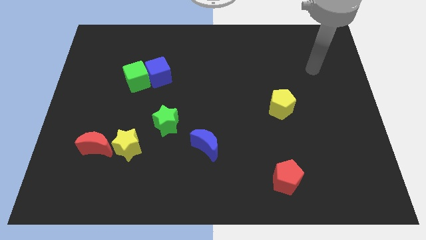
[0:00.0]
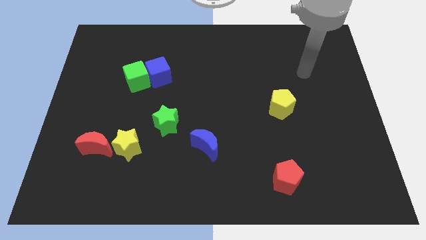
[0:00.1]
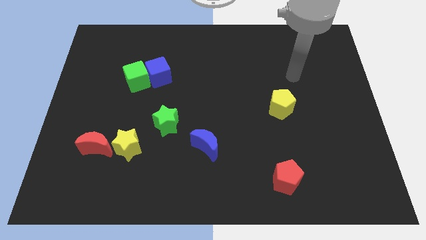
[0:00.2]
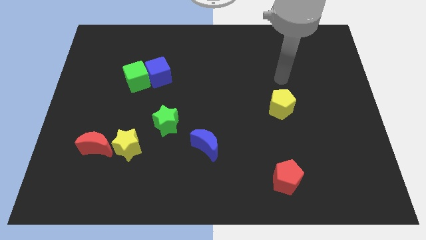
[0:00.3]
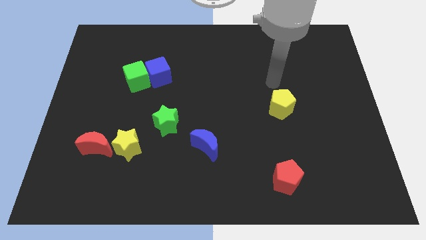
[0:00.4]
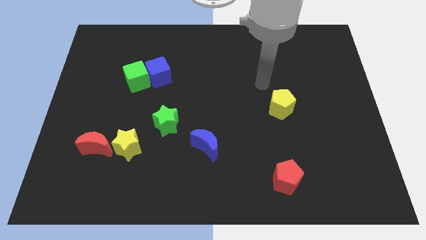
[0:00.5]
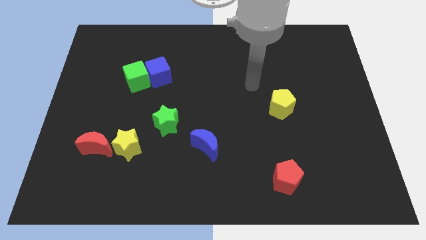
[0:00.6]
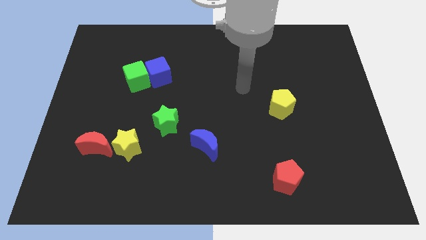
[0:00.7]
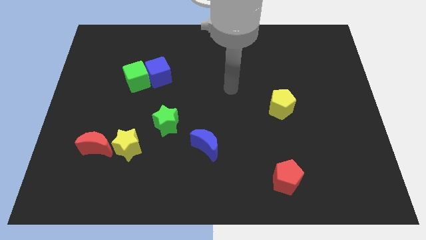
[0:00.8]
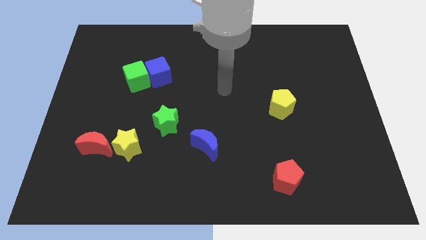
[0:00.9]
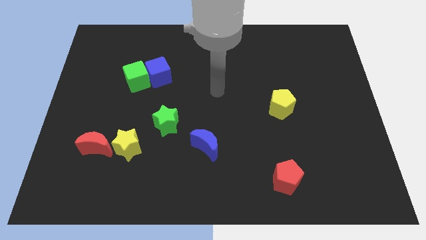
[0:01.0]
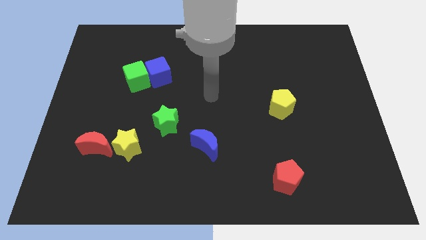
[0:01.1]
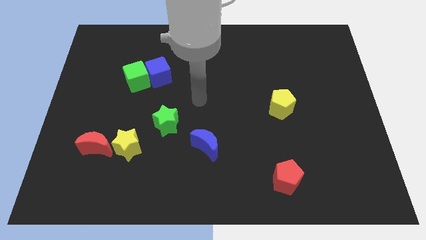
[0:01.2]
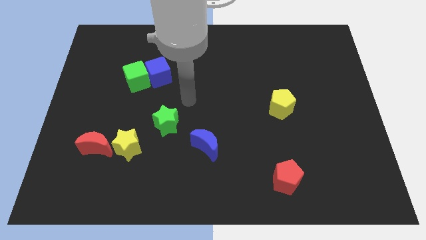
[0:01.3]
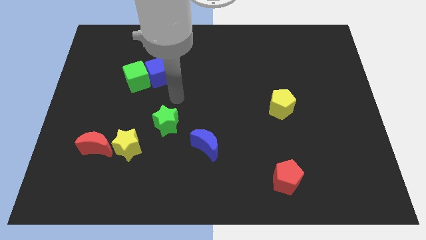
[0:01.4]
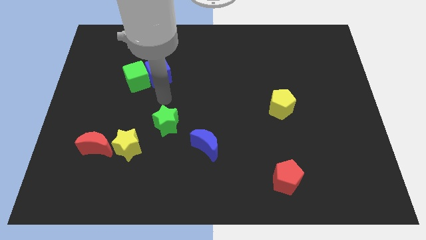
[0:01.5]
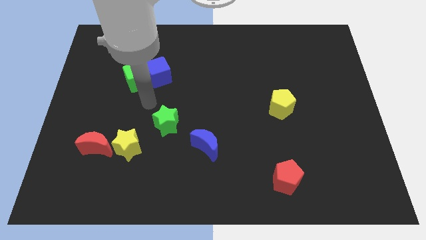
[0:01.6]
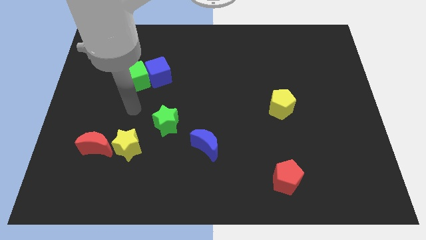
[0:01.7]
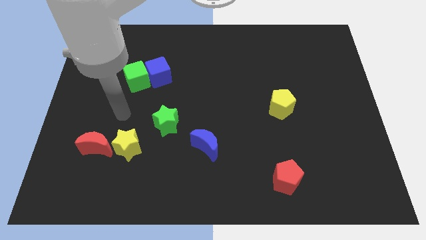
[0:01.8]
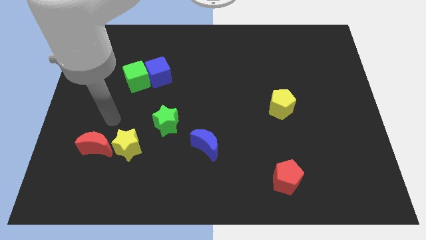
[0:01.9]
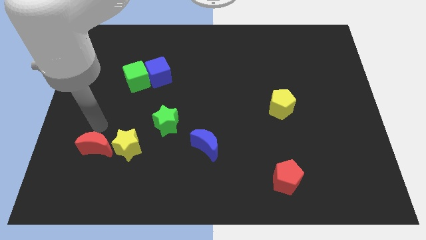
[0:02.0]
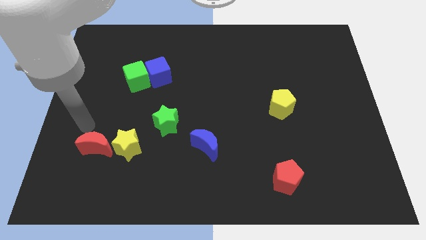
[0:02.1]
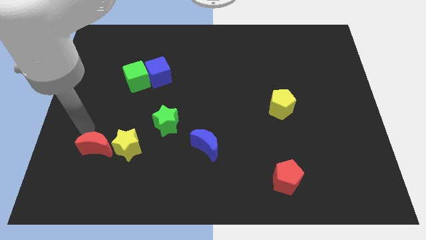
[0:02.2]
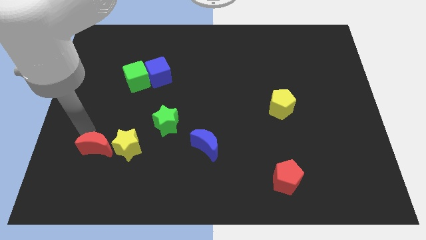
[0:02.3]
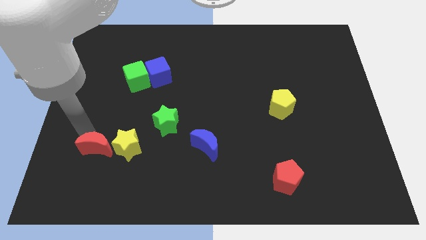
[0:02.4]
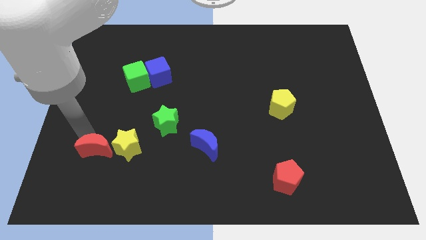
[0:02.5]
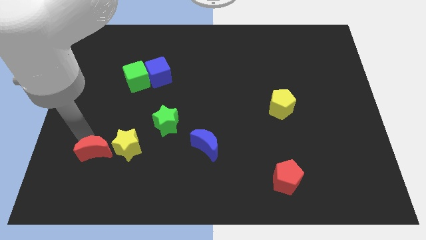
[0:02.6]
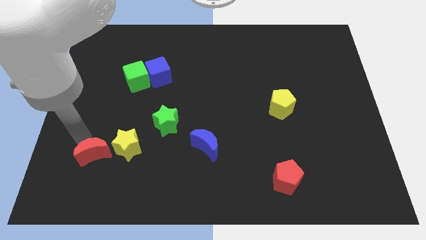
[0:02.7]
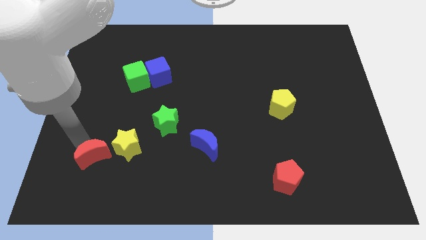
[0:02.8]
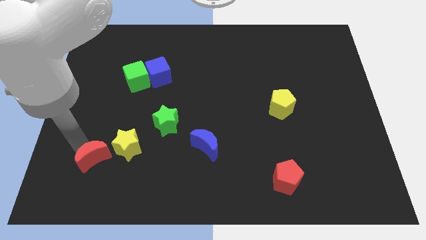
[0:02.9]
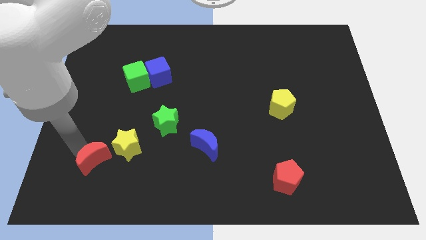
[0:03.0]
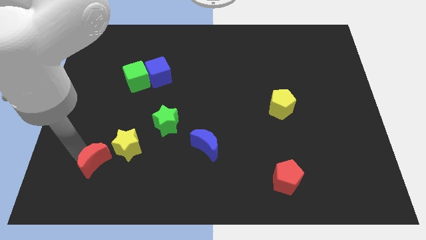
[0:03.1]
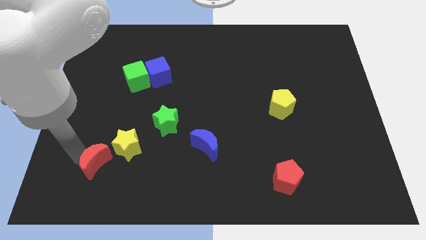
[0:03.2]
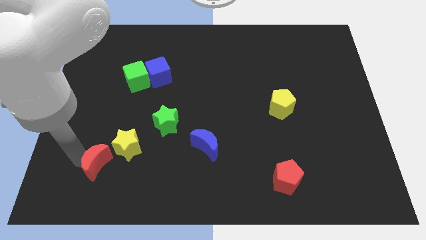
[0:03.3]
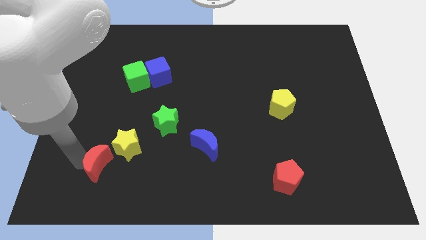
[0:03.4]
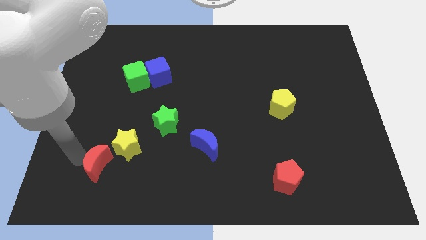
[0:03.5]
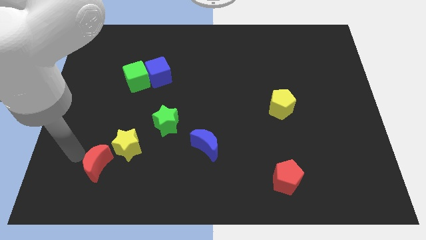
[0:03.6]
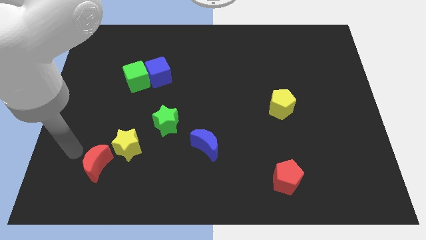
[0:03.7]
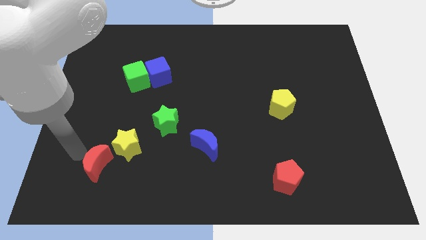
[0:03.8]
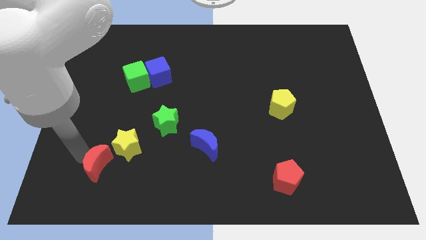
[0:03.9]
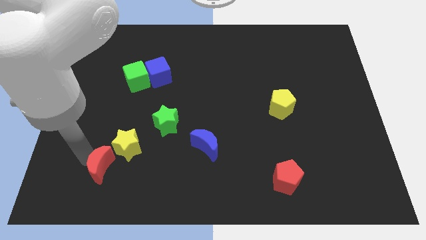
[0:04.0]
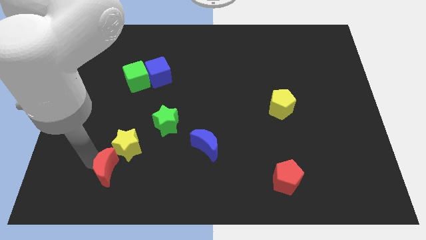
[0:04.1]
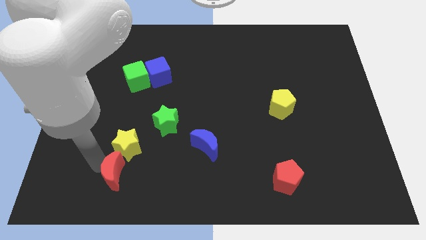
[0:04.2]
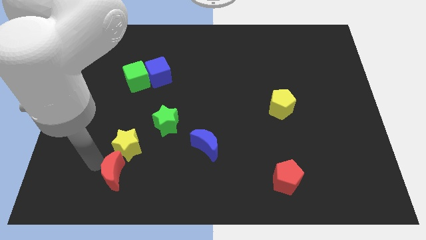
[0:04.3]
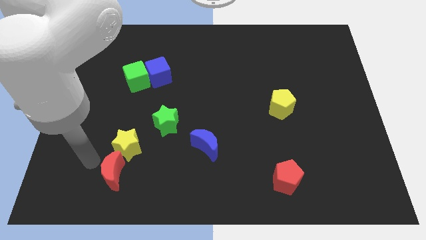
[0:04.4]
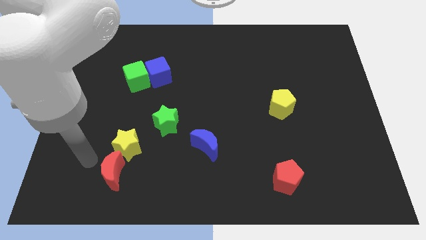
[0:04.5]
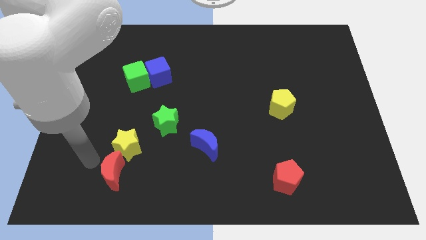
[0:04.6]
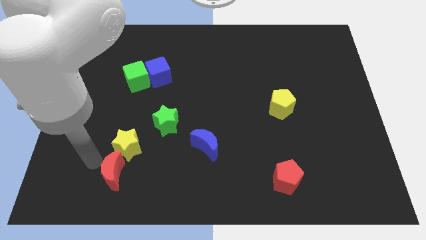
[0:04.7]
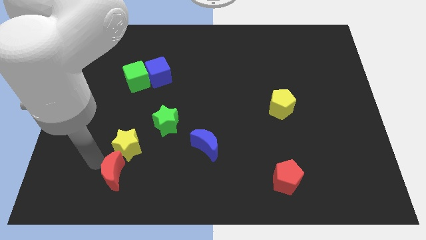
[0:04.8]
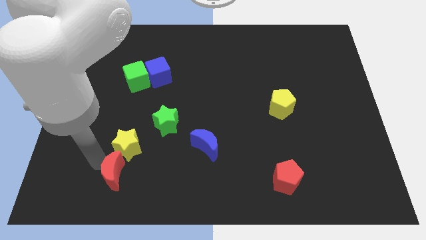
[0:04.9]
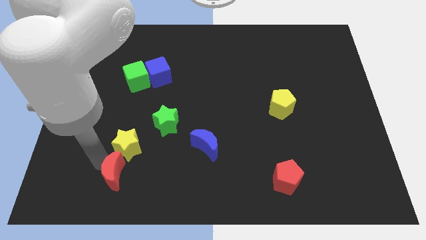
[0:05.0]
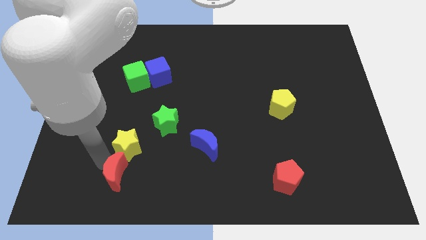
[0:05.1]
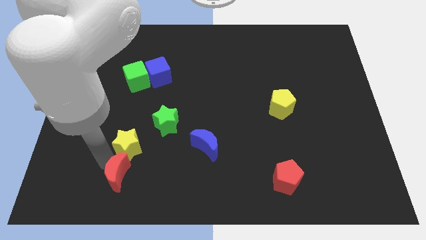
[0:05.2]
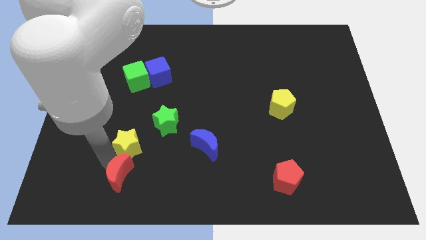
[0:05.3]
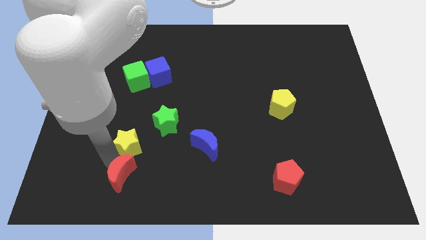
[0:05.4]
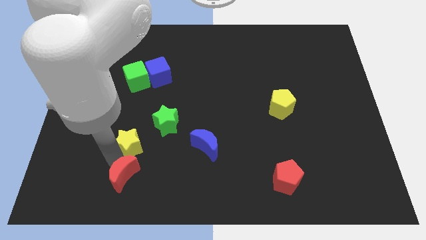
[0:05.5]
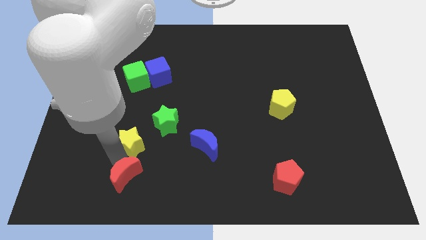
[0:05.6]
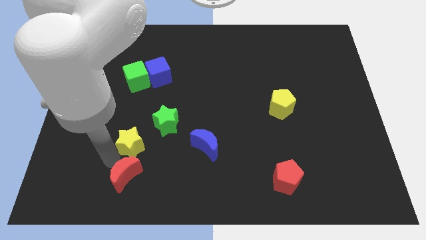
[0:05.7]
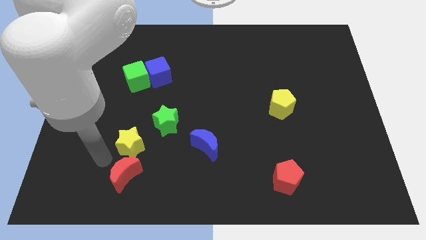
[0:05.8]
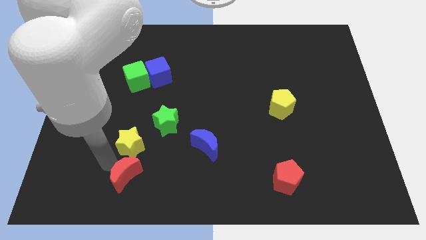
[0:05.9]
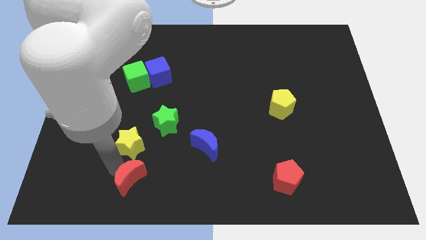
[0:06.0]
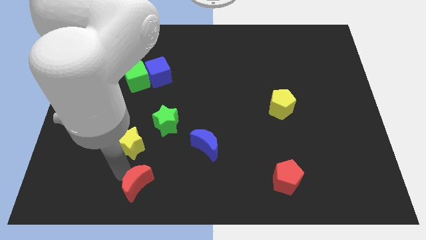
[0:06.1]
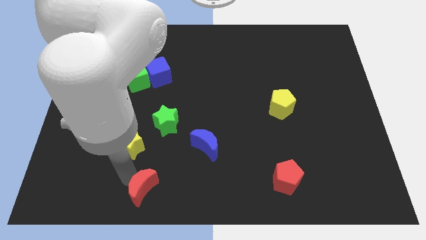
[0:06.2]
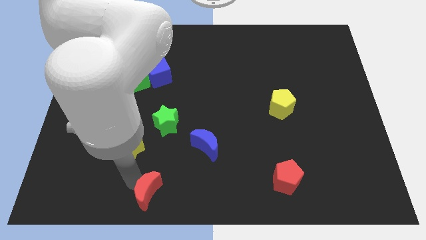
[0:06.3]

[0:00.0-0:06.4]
slide the red moon to the bottom

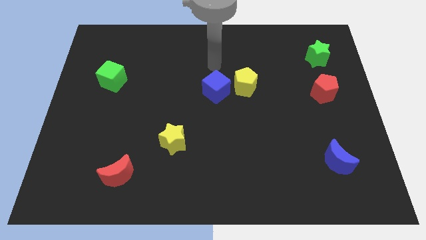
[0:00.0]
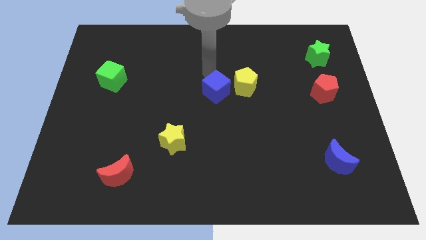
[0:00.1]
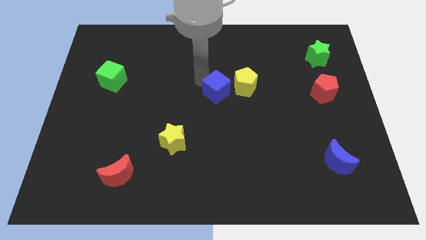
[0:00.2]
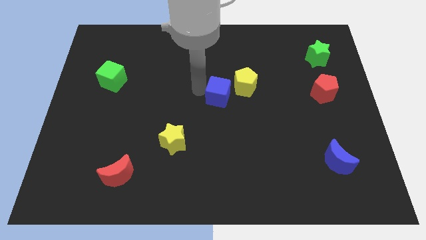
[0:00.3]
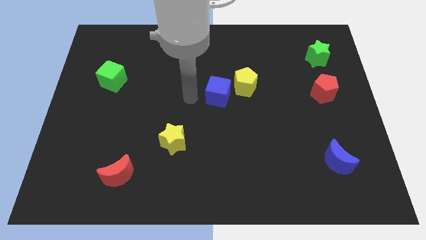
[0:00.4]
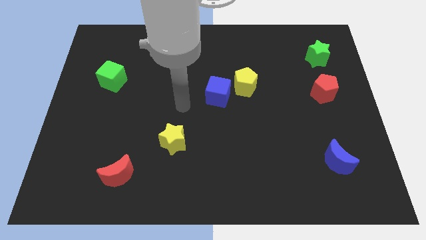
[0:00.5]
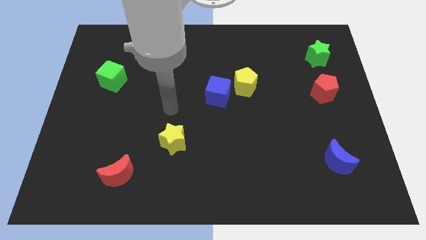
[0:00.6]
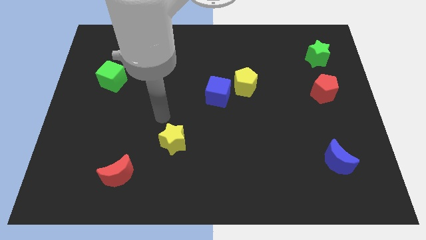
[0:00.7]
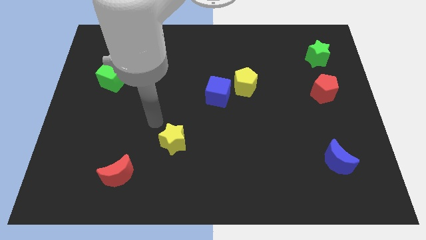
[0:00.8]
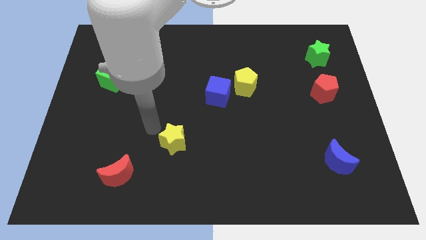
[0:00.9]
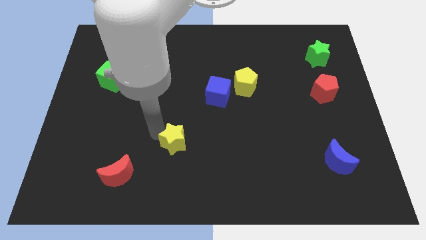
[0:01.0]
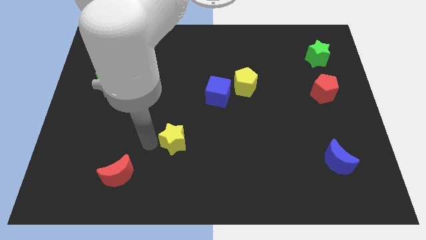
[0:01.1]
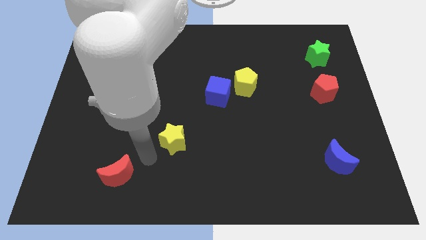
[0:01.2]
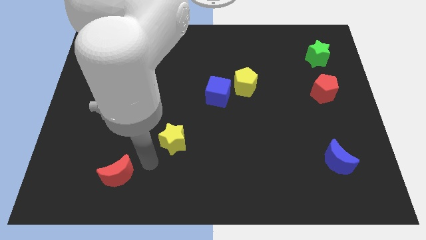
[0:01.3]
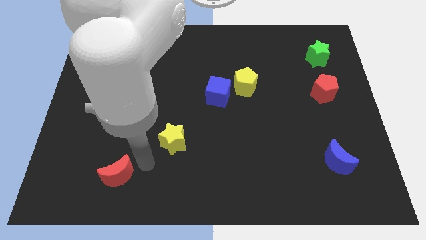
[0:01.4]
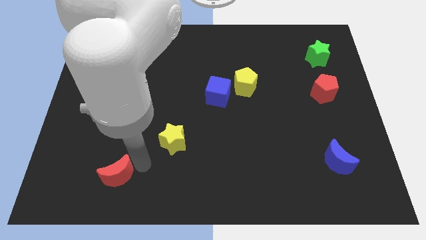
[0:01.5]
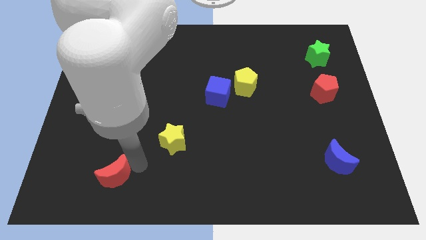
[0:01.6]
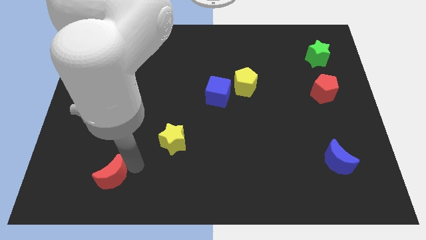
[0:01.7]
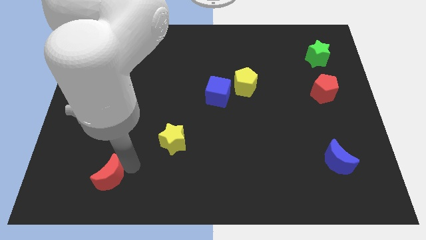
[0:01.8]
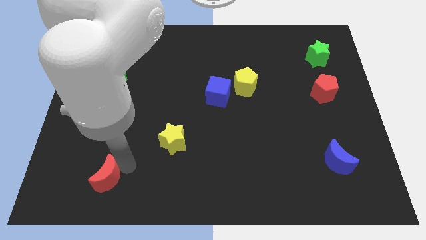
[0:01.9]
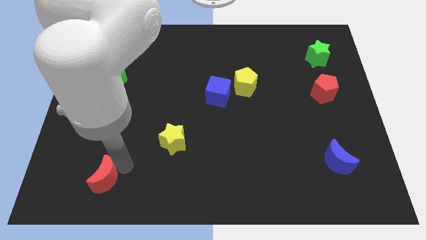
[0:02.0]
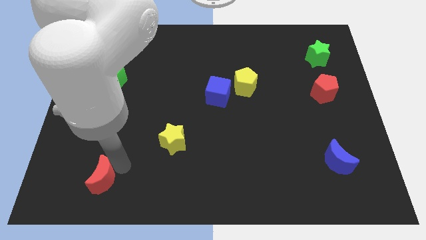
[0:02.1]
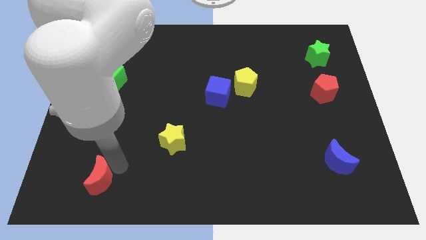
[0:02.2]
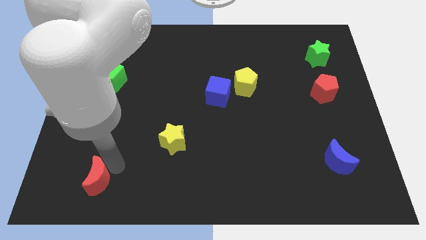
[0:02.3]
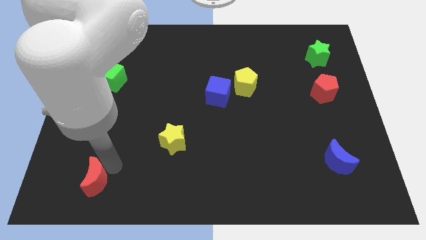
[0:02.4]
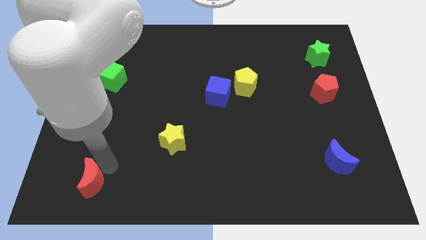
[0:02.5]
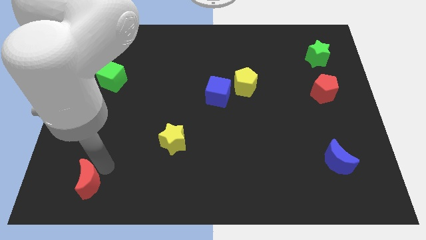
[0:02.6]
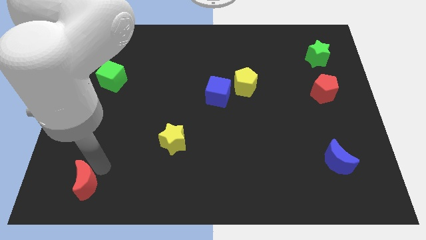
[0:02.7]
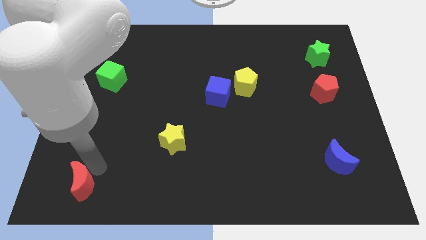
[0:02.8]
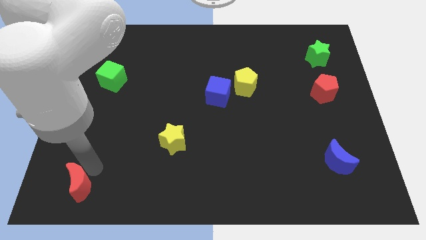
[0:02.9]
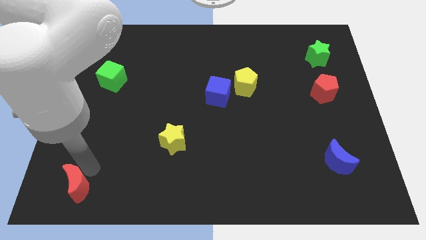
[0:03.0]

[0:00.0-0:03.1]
move the red moon to the lower left corner
